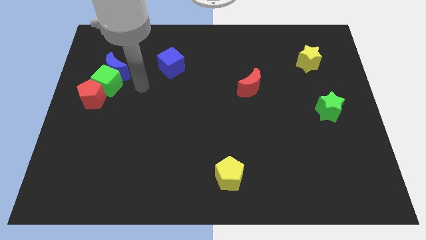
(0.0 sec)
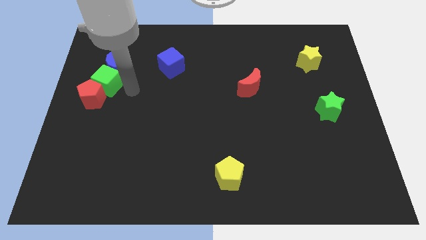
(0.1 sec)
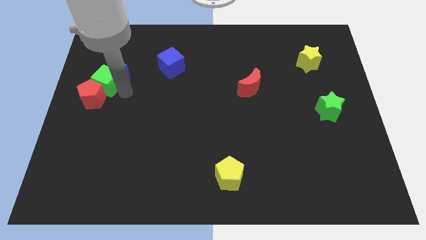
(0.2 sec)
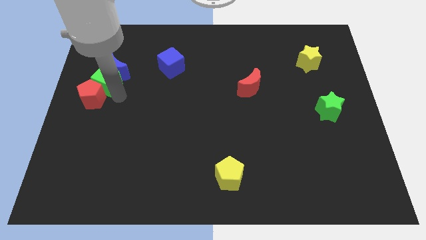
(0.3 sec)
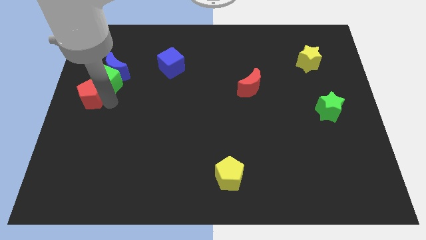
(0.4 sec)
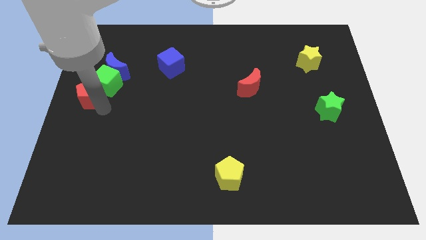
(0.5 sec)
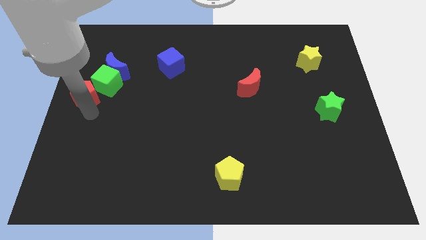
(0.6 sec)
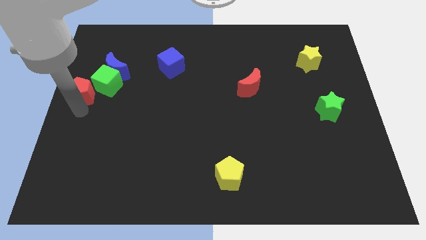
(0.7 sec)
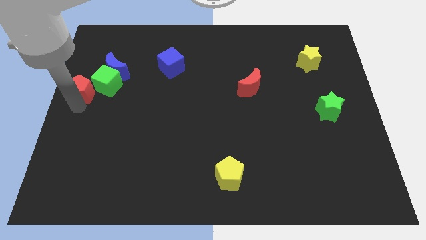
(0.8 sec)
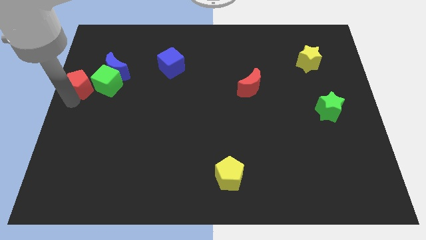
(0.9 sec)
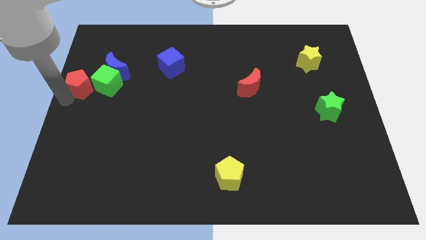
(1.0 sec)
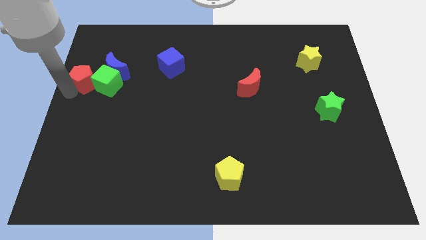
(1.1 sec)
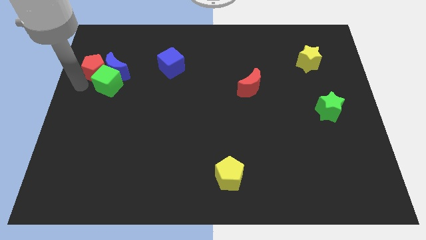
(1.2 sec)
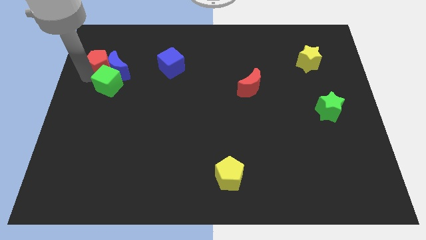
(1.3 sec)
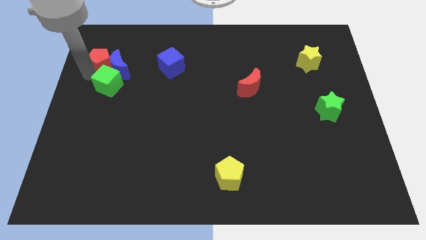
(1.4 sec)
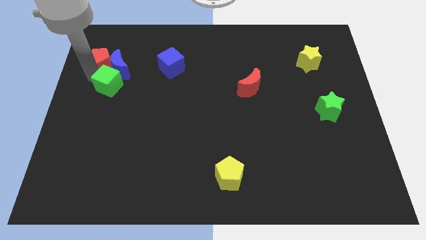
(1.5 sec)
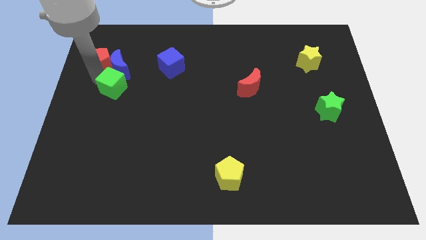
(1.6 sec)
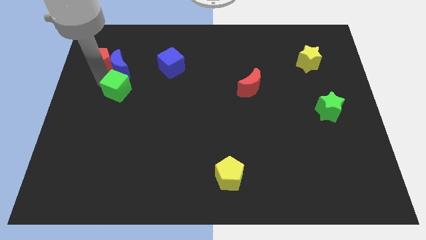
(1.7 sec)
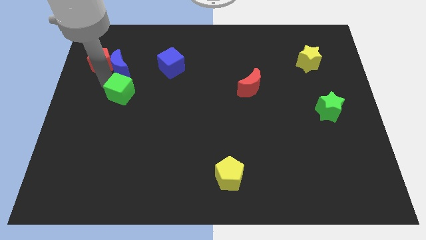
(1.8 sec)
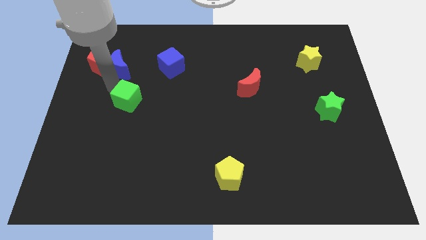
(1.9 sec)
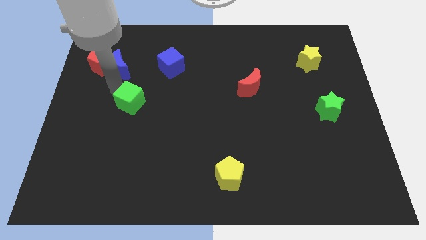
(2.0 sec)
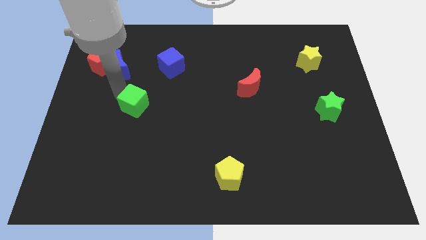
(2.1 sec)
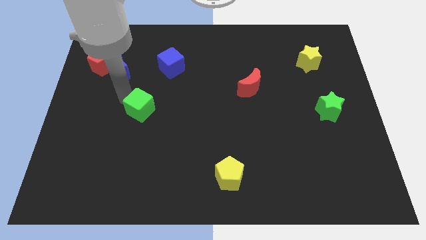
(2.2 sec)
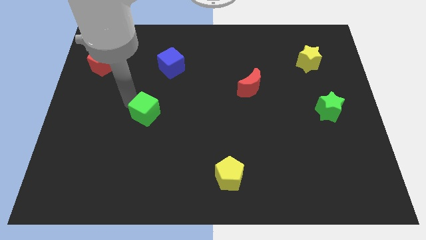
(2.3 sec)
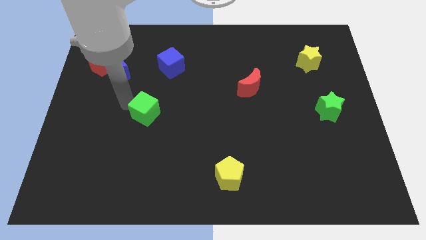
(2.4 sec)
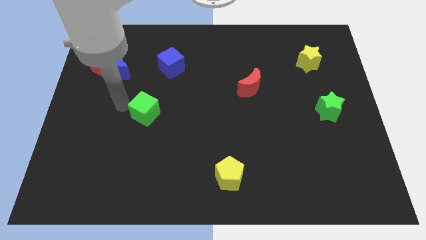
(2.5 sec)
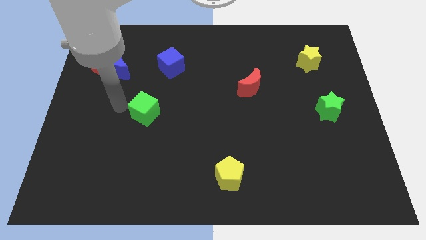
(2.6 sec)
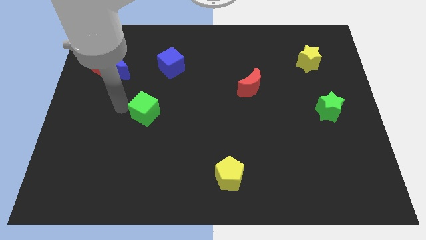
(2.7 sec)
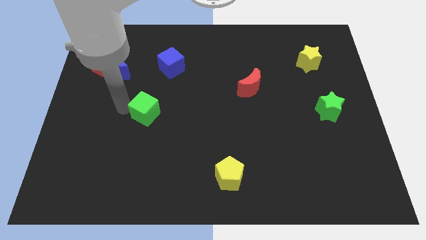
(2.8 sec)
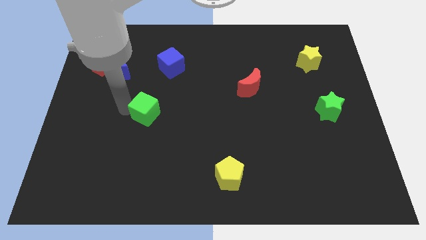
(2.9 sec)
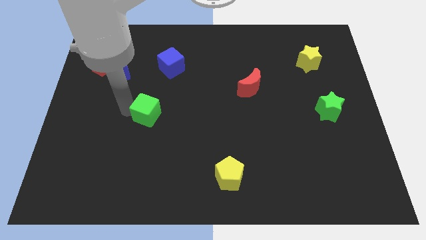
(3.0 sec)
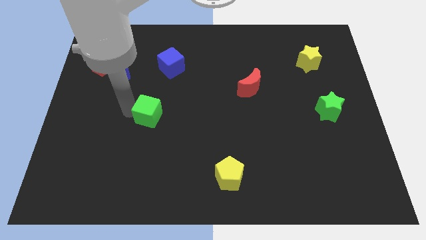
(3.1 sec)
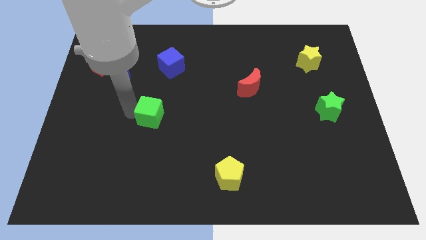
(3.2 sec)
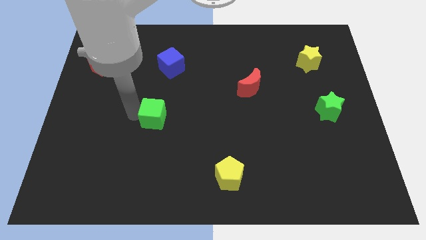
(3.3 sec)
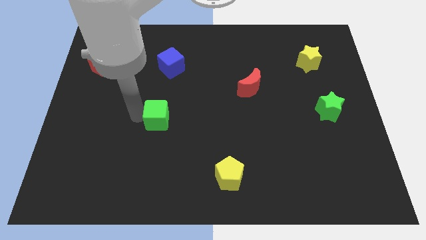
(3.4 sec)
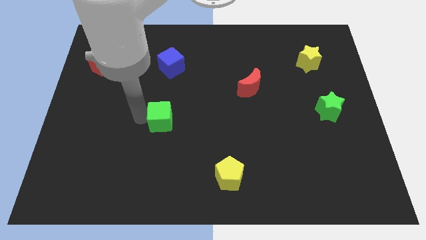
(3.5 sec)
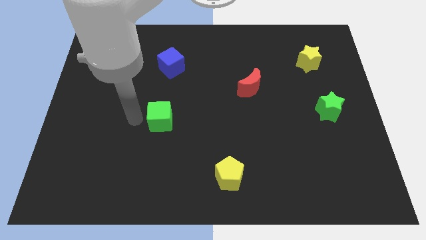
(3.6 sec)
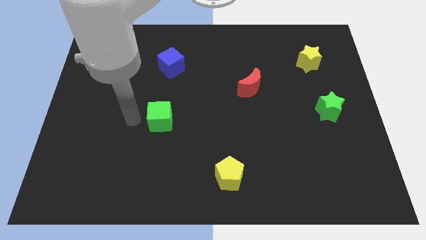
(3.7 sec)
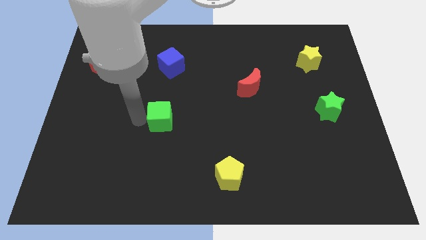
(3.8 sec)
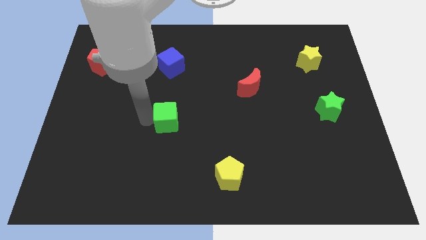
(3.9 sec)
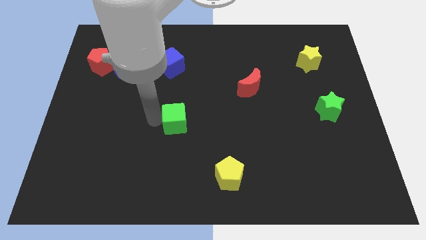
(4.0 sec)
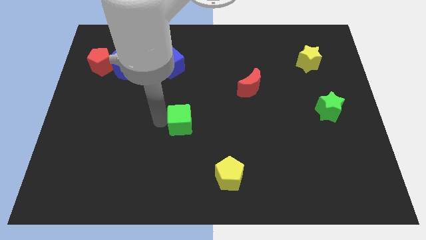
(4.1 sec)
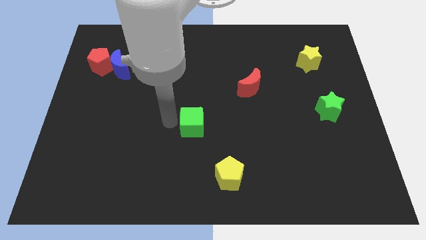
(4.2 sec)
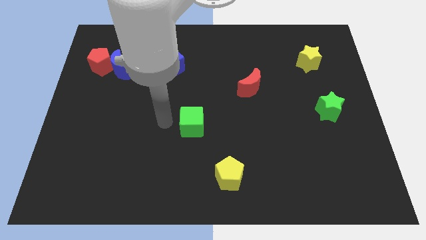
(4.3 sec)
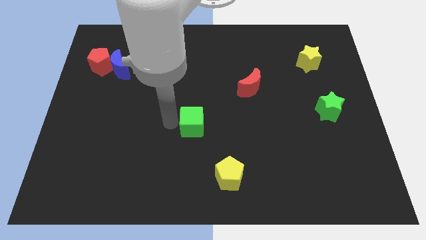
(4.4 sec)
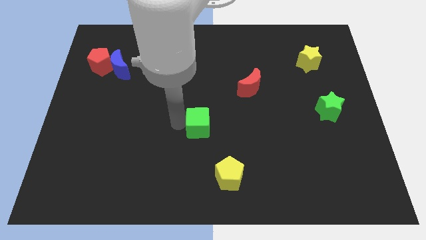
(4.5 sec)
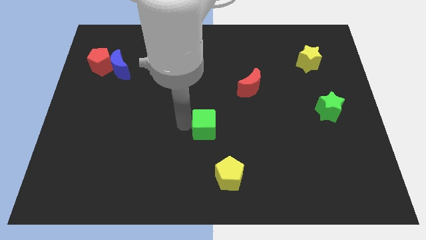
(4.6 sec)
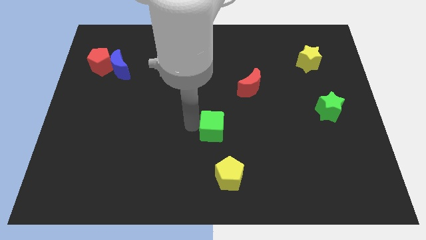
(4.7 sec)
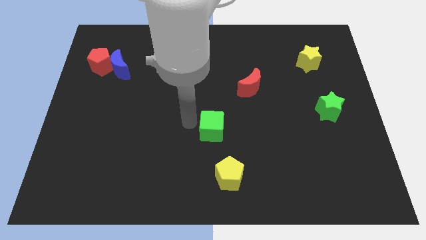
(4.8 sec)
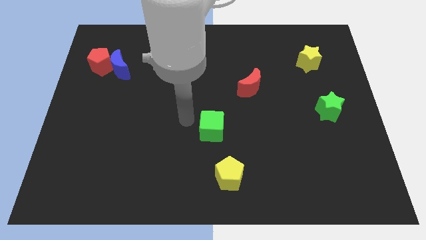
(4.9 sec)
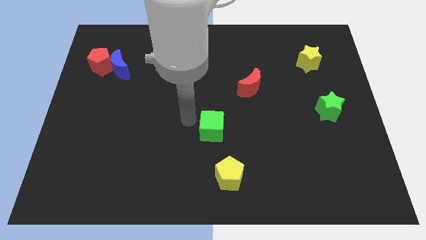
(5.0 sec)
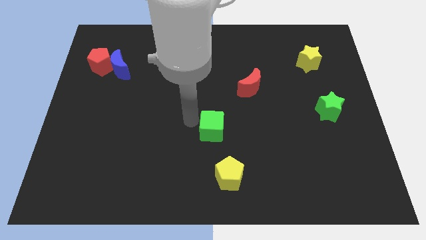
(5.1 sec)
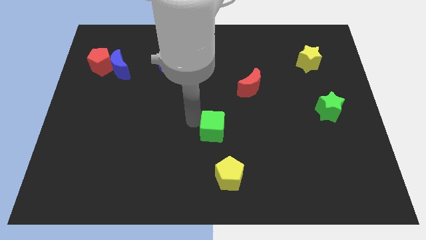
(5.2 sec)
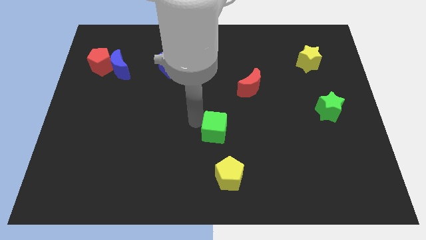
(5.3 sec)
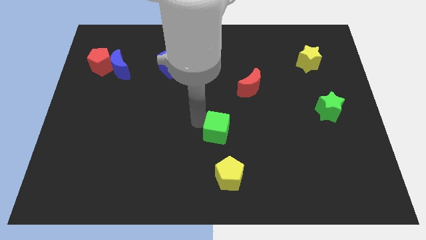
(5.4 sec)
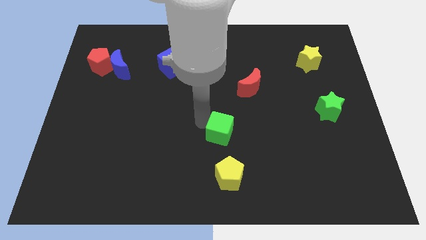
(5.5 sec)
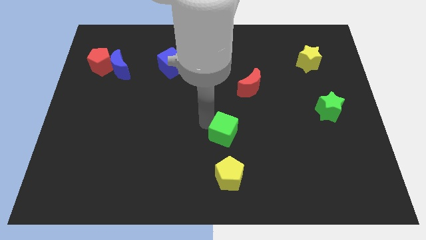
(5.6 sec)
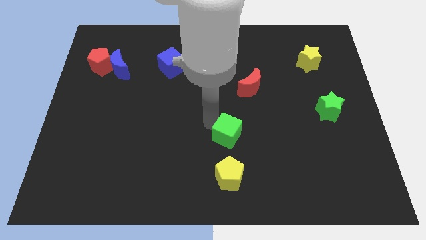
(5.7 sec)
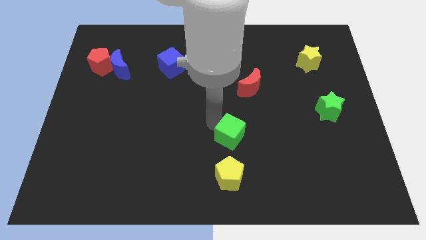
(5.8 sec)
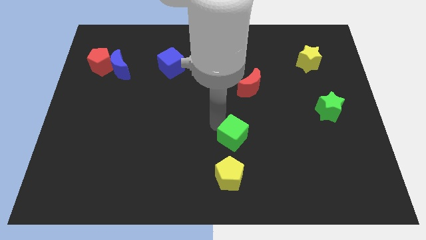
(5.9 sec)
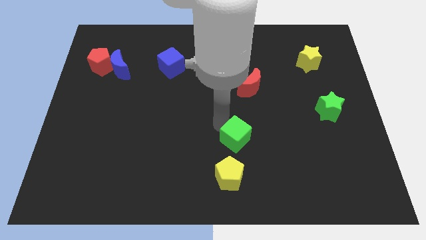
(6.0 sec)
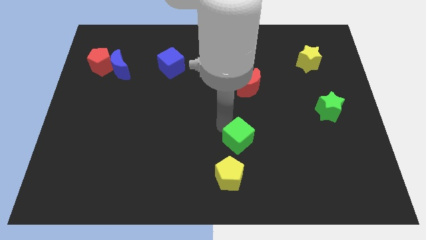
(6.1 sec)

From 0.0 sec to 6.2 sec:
slide the green cube to the top right side of the yellow pentagon

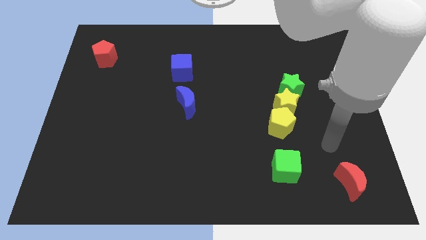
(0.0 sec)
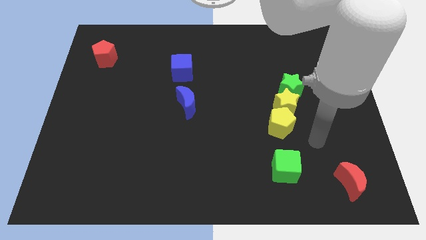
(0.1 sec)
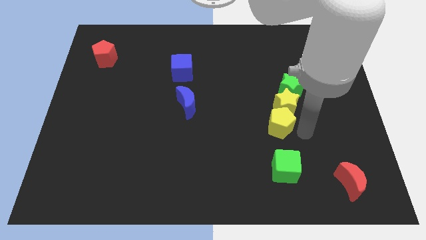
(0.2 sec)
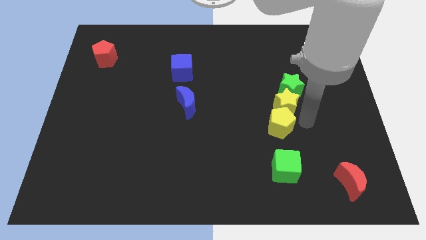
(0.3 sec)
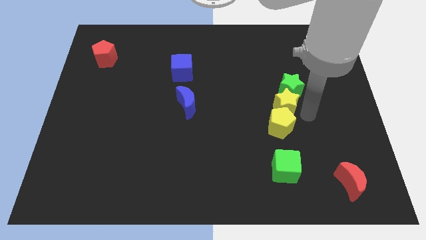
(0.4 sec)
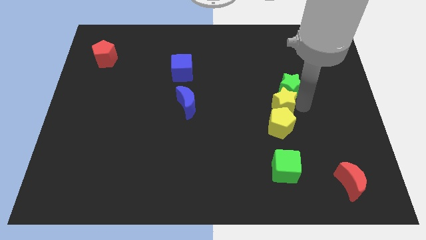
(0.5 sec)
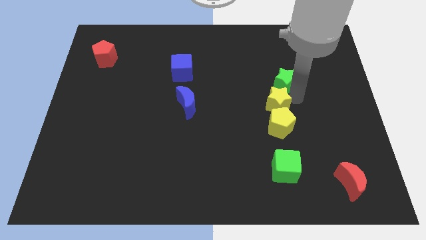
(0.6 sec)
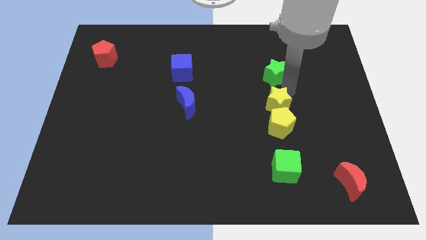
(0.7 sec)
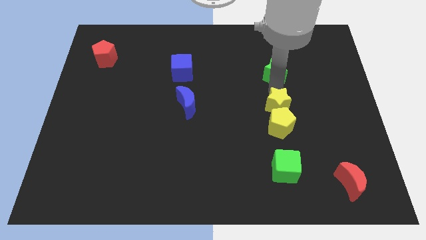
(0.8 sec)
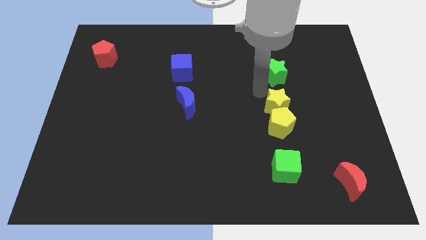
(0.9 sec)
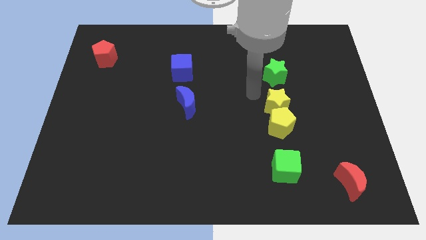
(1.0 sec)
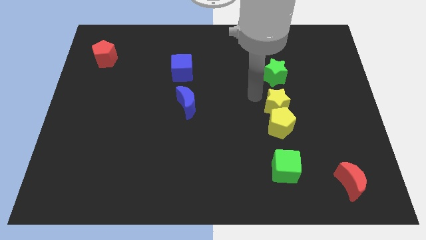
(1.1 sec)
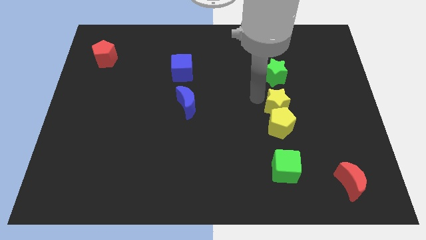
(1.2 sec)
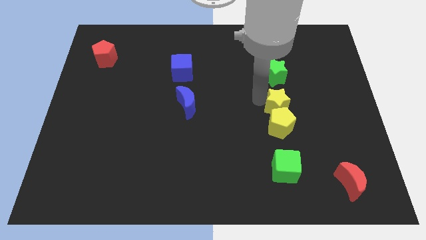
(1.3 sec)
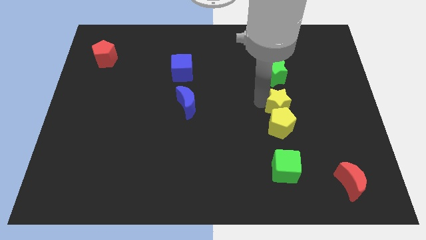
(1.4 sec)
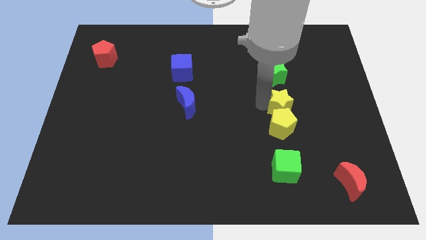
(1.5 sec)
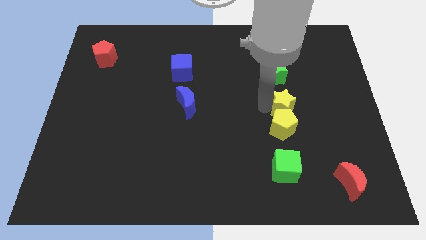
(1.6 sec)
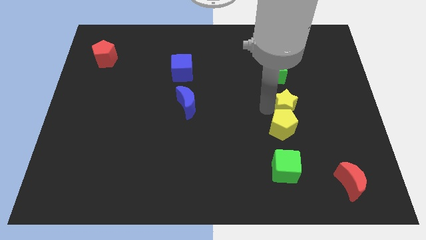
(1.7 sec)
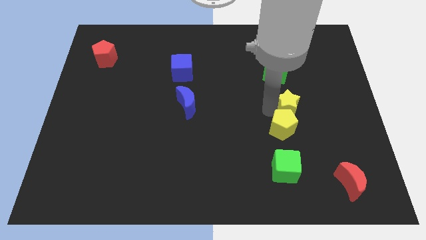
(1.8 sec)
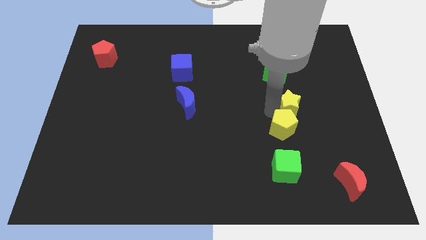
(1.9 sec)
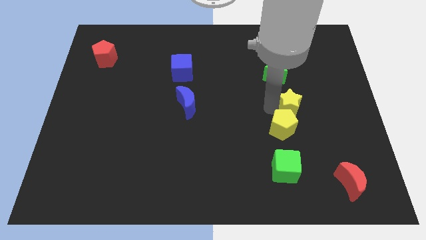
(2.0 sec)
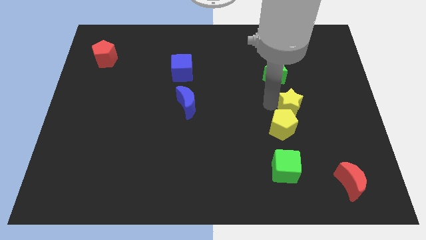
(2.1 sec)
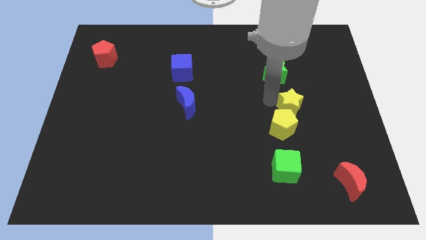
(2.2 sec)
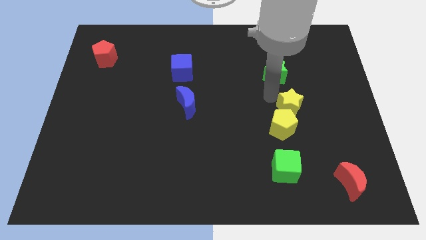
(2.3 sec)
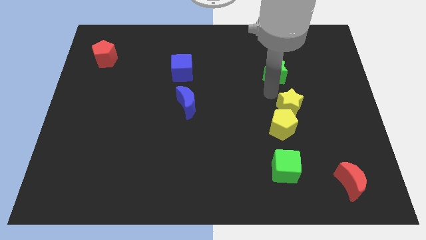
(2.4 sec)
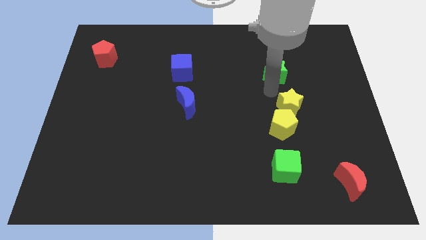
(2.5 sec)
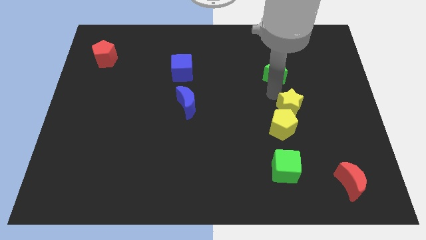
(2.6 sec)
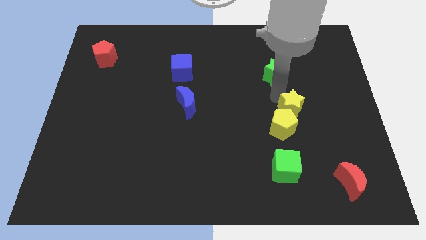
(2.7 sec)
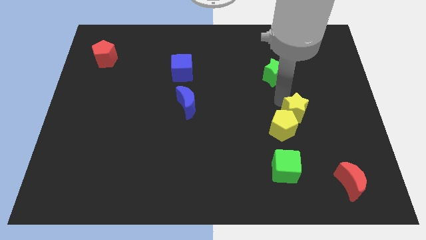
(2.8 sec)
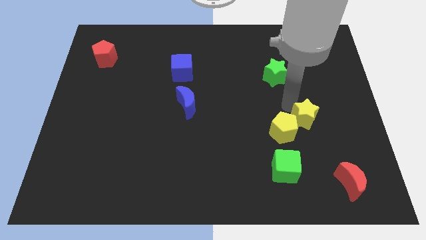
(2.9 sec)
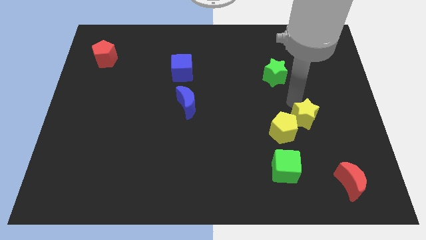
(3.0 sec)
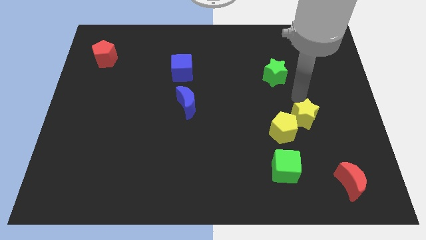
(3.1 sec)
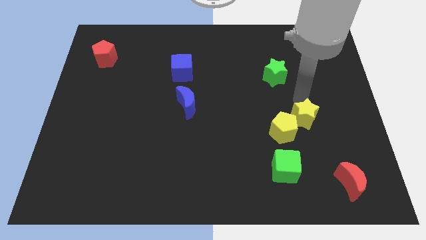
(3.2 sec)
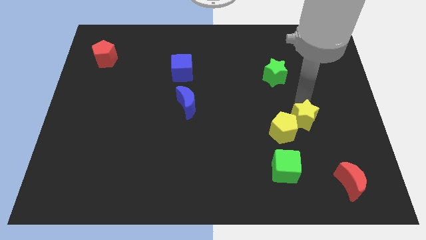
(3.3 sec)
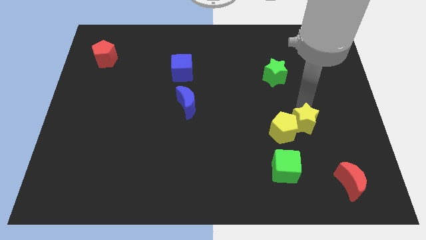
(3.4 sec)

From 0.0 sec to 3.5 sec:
push the yellow star diagonally down and to the right of the yellow pentagon
